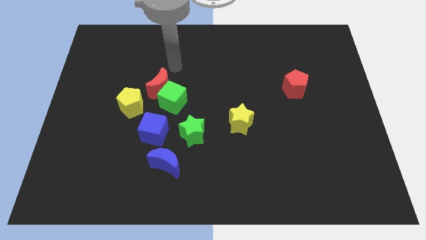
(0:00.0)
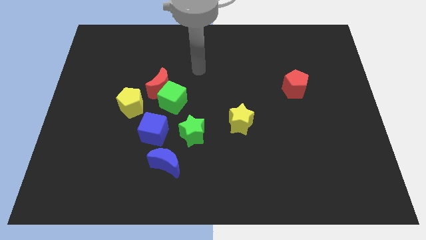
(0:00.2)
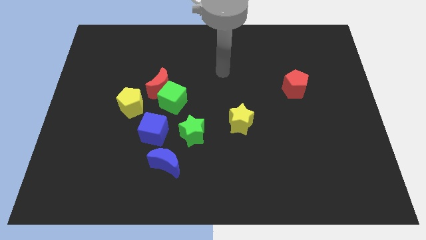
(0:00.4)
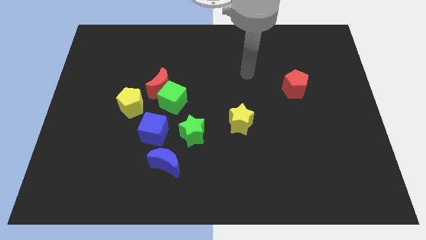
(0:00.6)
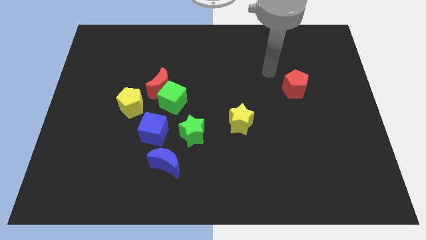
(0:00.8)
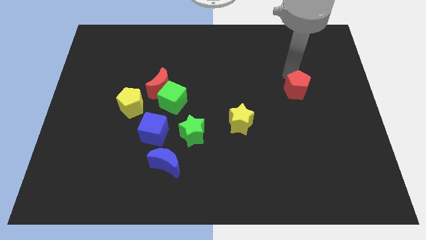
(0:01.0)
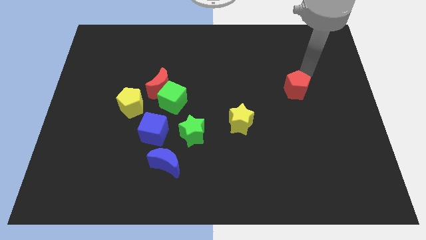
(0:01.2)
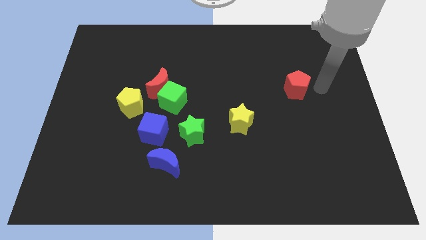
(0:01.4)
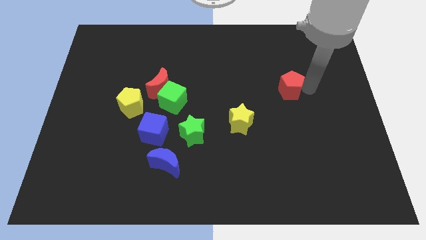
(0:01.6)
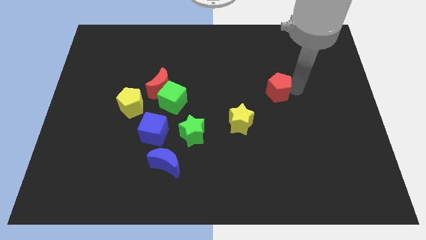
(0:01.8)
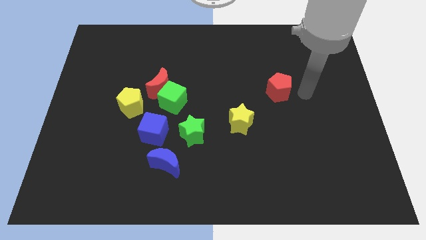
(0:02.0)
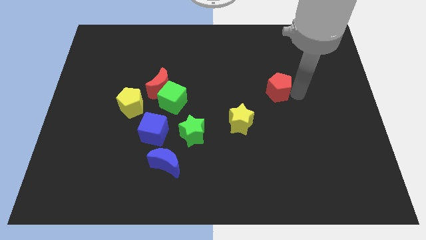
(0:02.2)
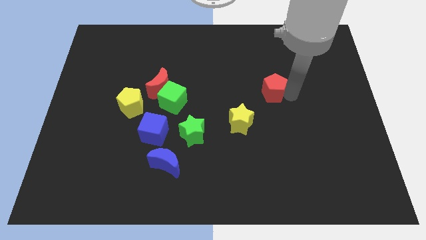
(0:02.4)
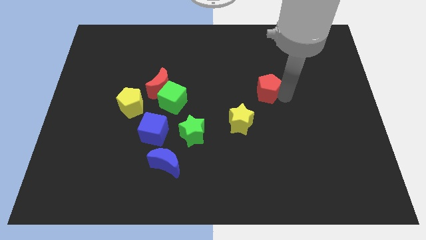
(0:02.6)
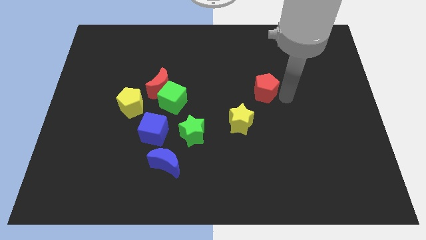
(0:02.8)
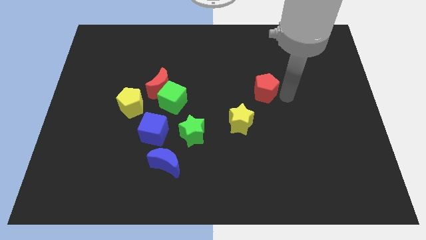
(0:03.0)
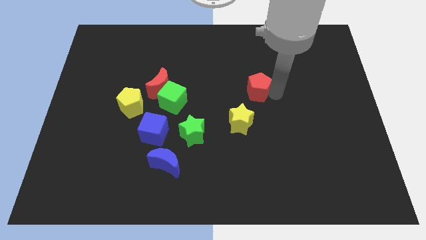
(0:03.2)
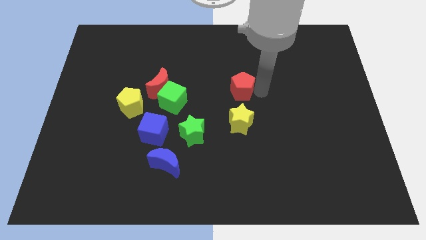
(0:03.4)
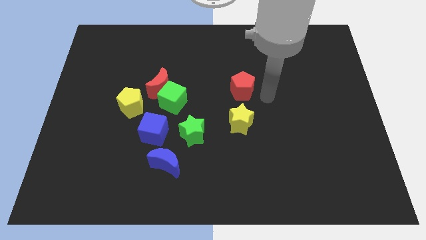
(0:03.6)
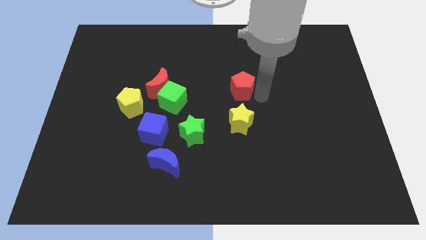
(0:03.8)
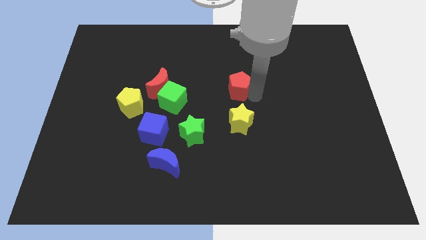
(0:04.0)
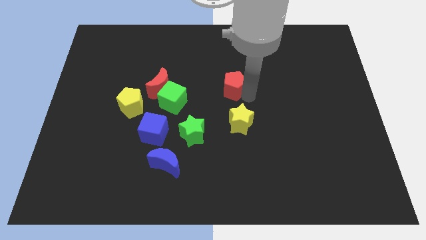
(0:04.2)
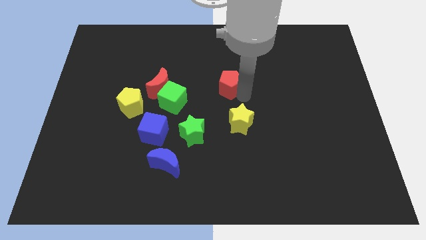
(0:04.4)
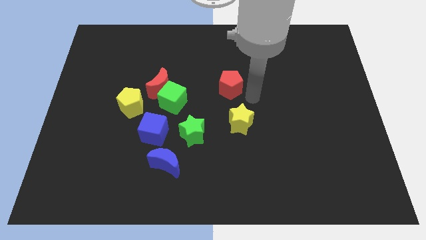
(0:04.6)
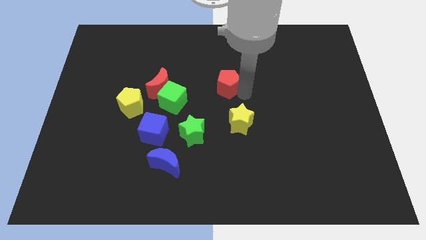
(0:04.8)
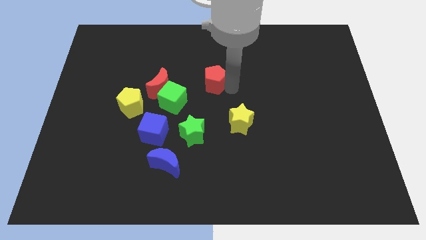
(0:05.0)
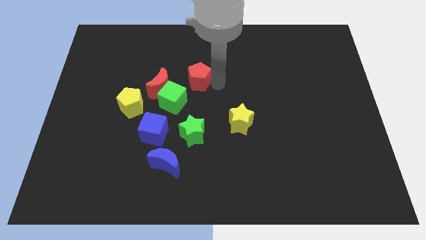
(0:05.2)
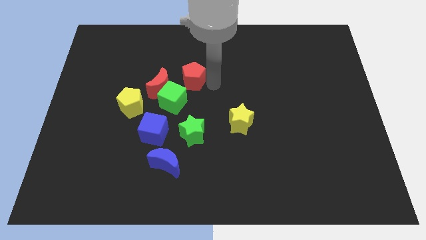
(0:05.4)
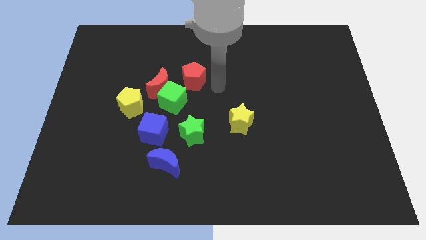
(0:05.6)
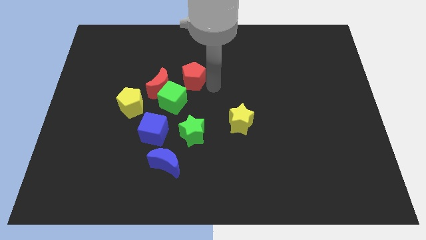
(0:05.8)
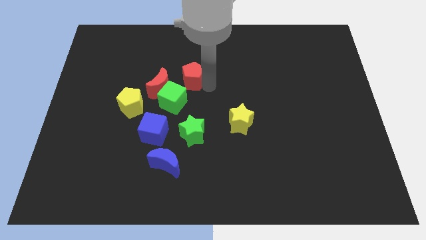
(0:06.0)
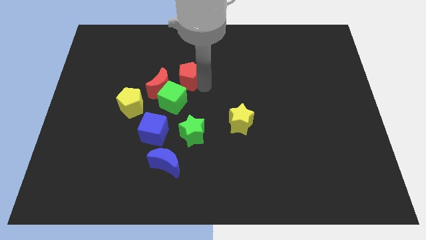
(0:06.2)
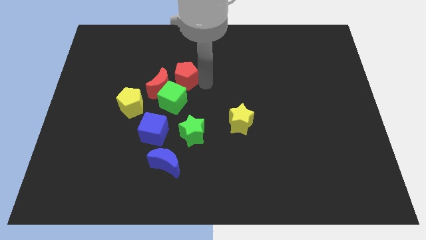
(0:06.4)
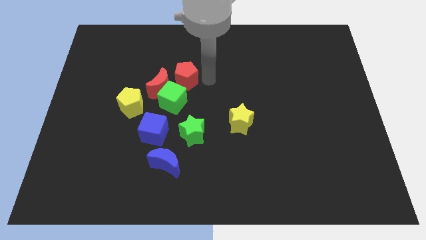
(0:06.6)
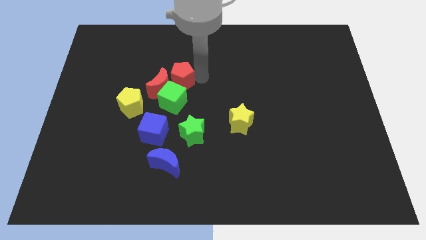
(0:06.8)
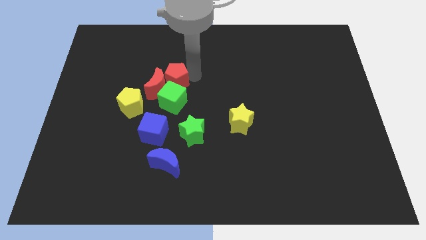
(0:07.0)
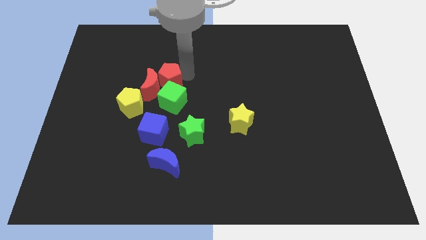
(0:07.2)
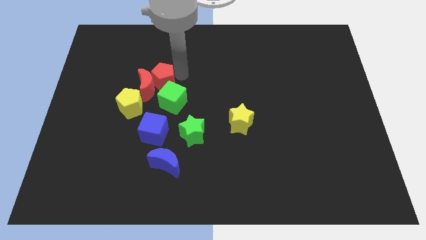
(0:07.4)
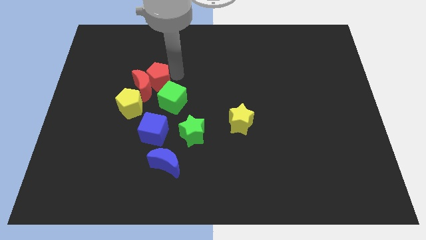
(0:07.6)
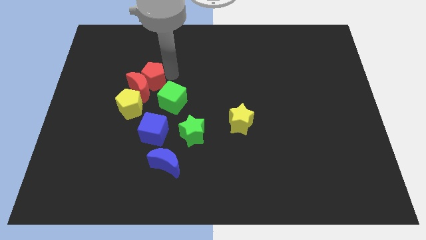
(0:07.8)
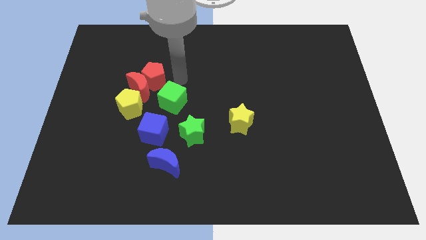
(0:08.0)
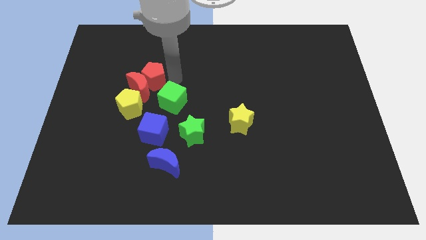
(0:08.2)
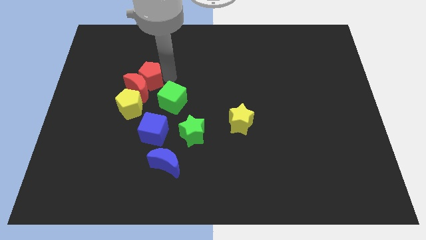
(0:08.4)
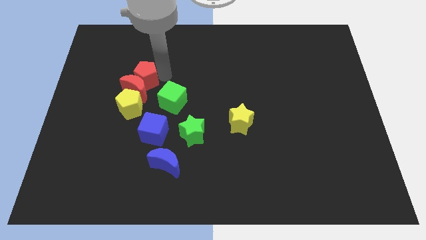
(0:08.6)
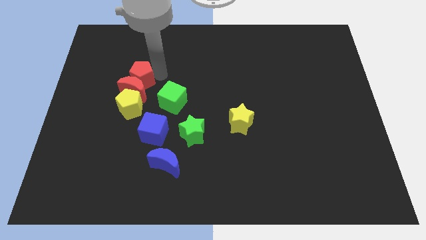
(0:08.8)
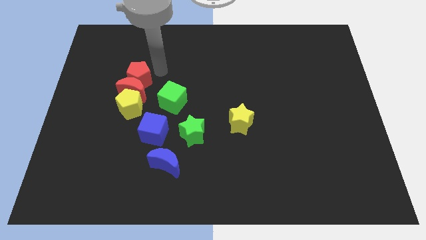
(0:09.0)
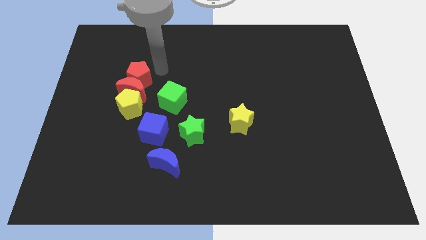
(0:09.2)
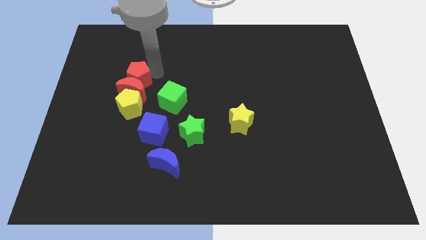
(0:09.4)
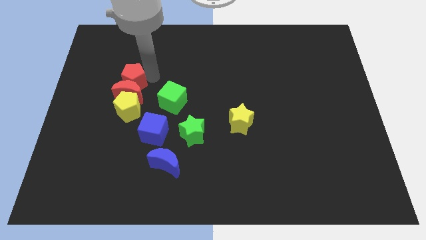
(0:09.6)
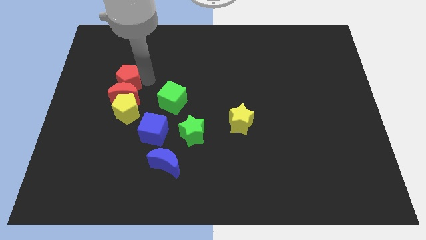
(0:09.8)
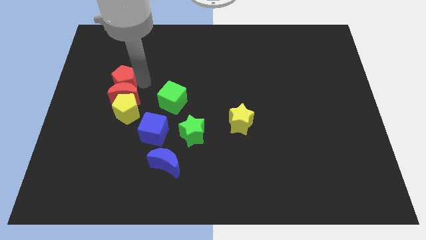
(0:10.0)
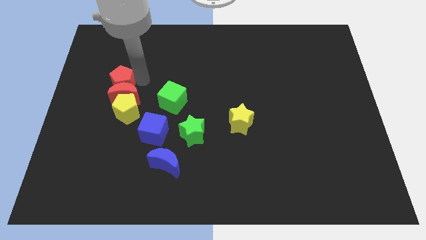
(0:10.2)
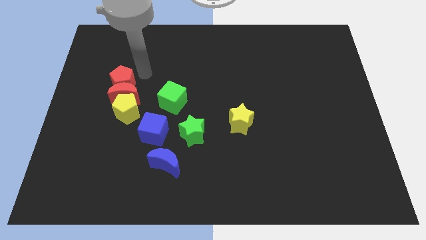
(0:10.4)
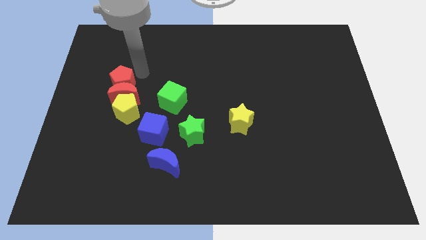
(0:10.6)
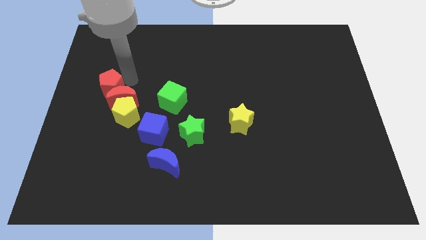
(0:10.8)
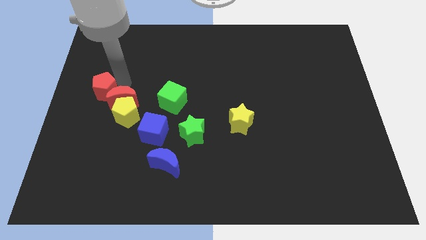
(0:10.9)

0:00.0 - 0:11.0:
put the red pentagon to the left side

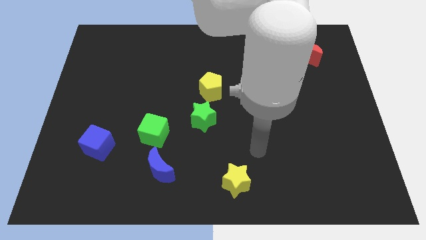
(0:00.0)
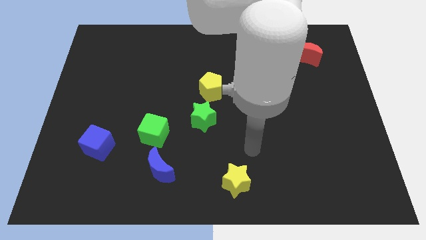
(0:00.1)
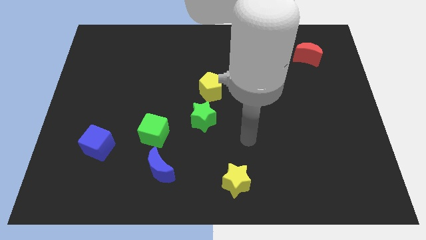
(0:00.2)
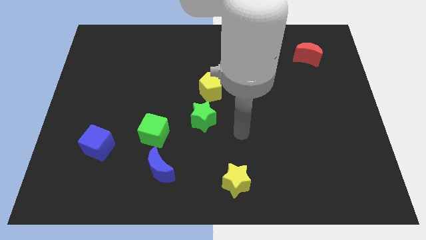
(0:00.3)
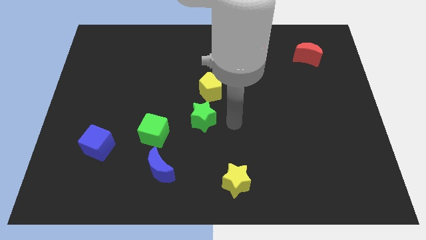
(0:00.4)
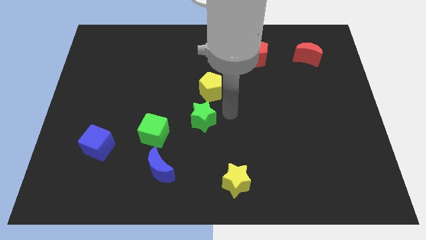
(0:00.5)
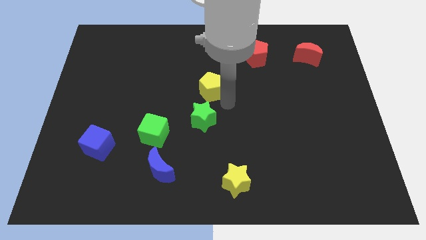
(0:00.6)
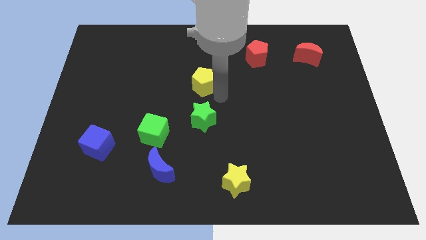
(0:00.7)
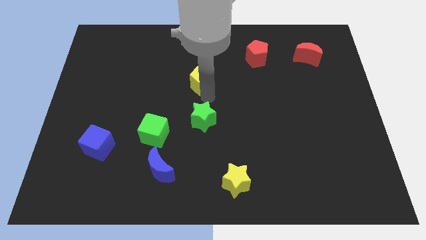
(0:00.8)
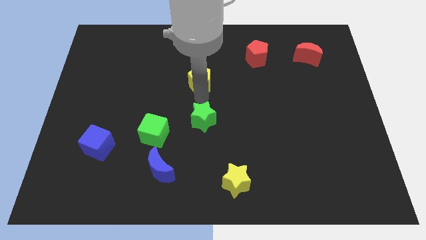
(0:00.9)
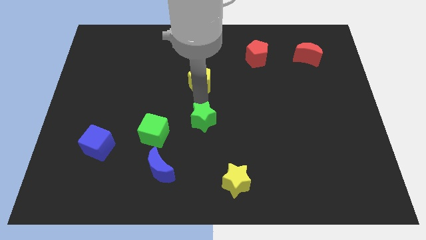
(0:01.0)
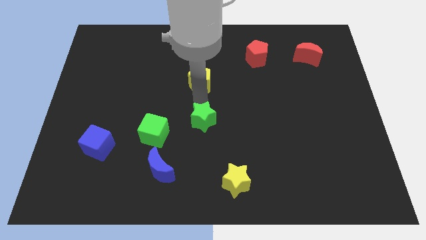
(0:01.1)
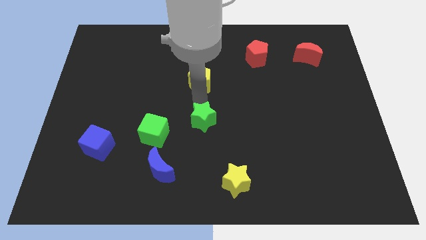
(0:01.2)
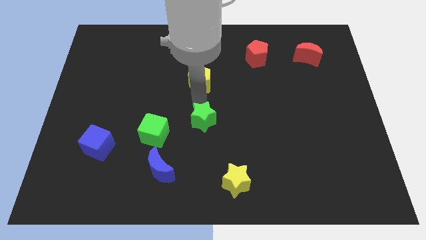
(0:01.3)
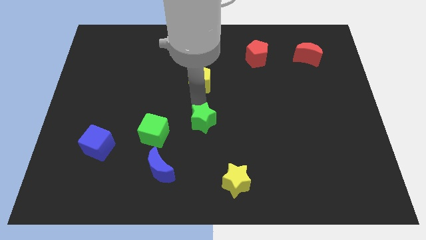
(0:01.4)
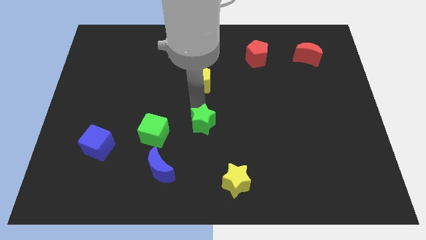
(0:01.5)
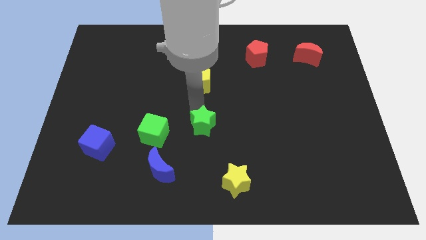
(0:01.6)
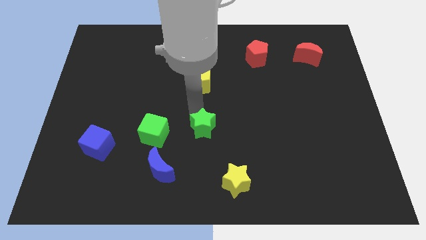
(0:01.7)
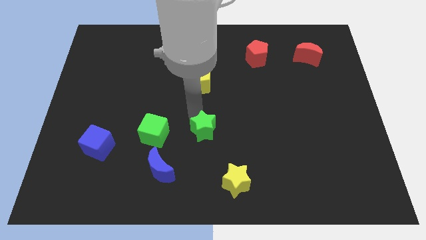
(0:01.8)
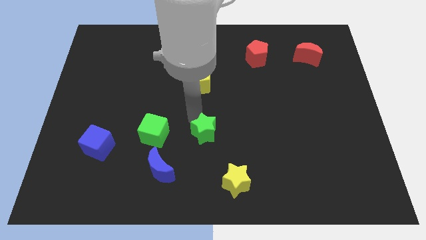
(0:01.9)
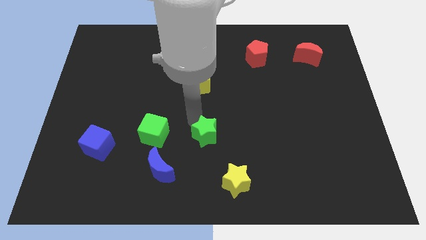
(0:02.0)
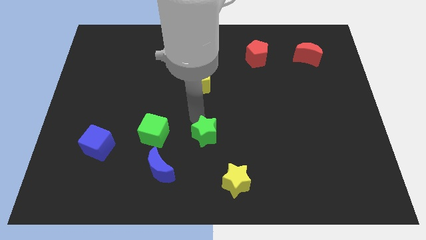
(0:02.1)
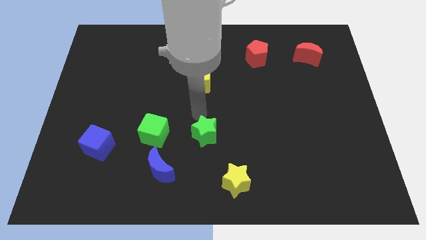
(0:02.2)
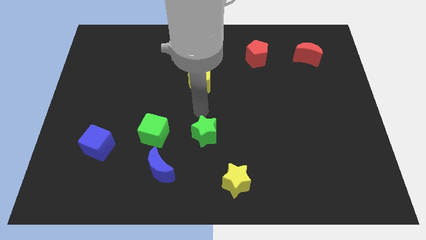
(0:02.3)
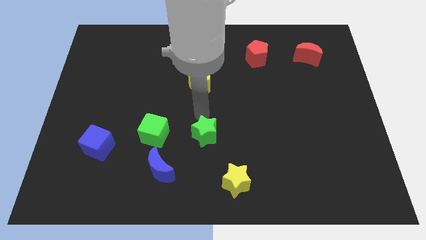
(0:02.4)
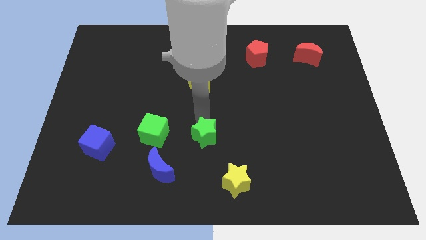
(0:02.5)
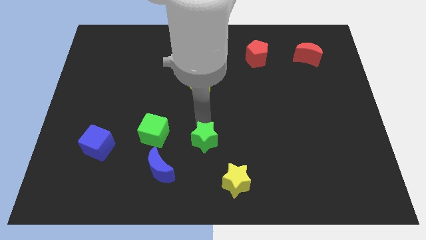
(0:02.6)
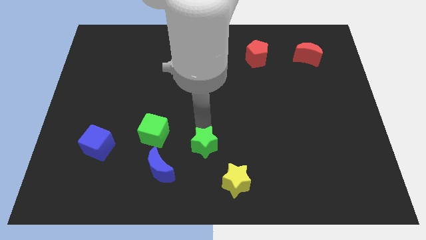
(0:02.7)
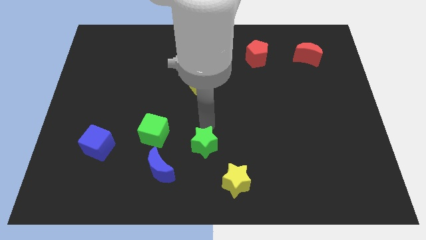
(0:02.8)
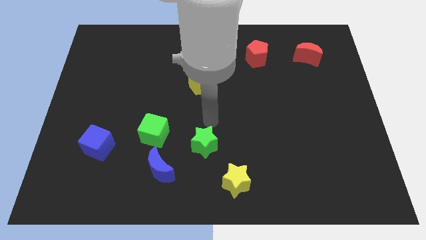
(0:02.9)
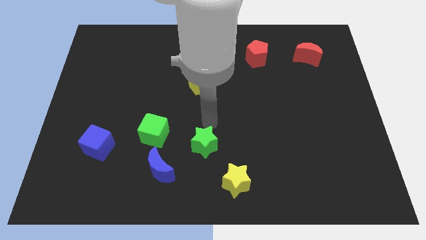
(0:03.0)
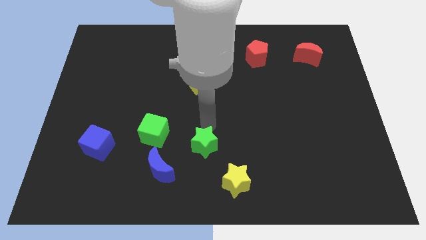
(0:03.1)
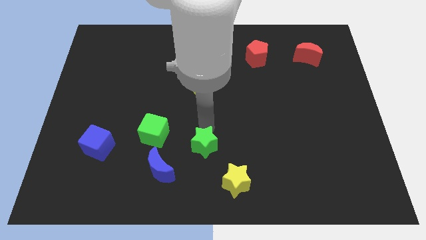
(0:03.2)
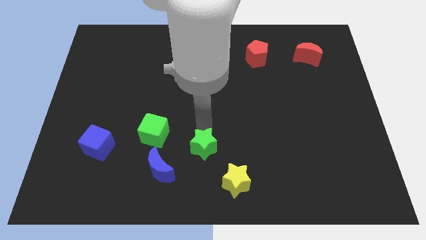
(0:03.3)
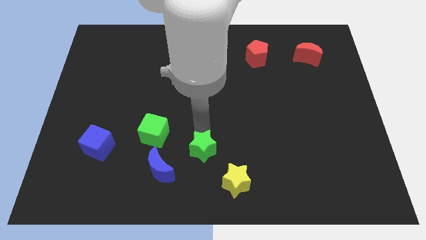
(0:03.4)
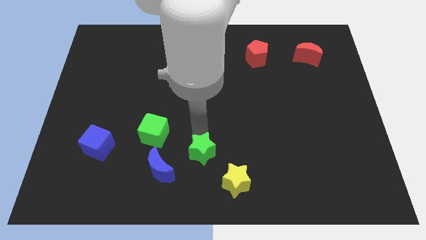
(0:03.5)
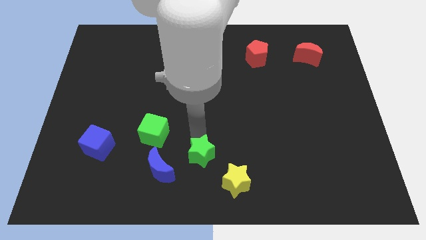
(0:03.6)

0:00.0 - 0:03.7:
move the green star to the bottom
